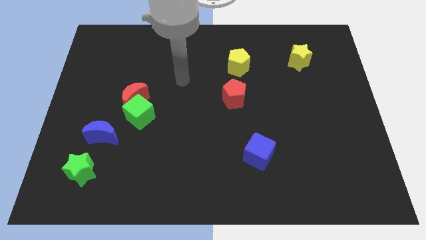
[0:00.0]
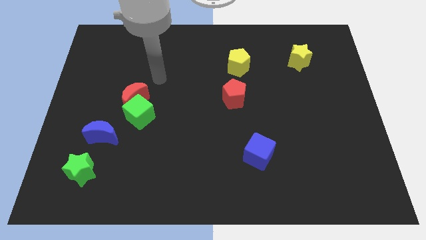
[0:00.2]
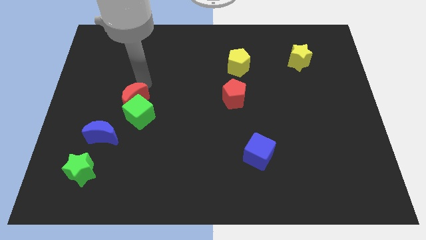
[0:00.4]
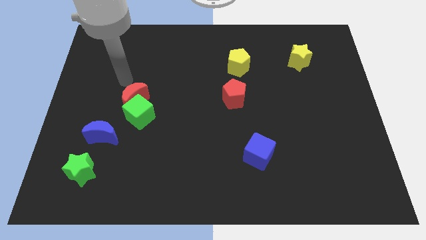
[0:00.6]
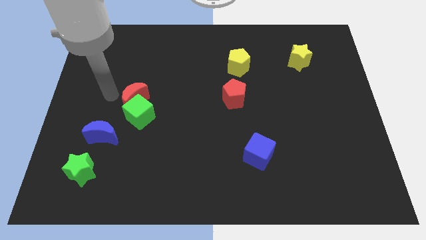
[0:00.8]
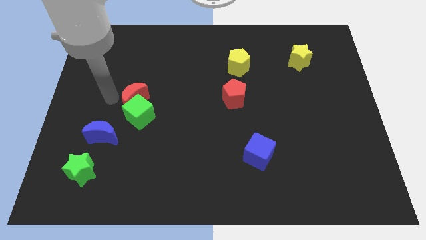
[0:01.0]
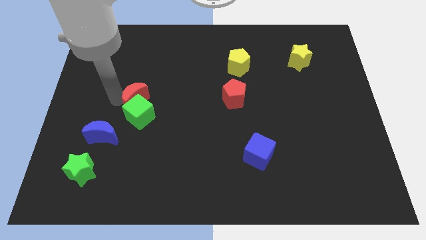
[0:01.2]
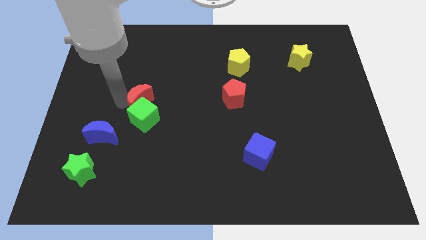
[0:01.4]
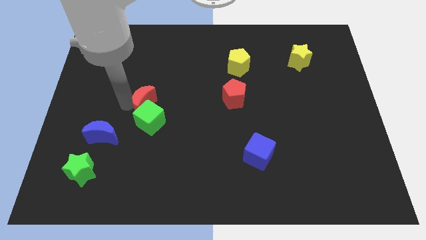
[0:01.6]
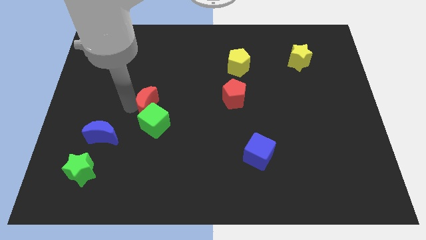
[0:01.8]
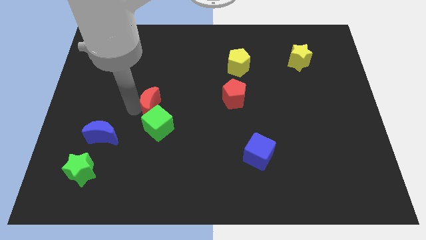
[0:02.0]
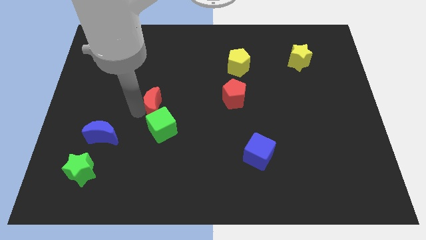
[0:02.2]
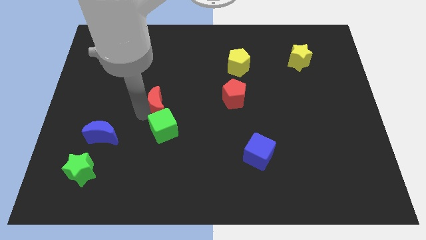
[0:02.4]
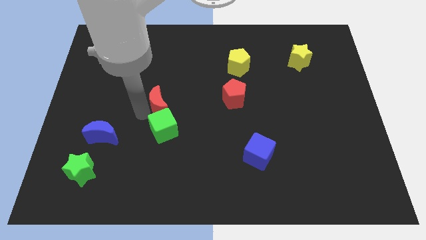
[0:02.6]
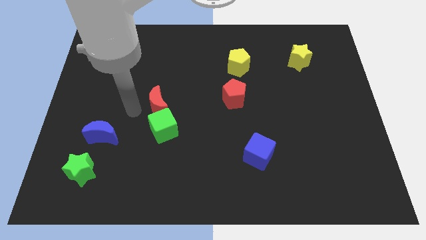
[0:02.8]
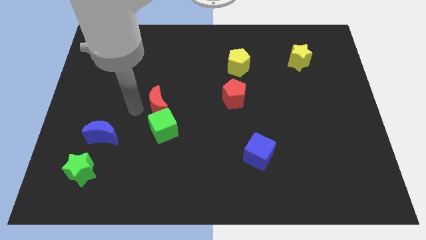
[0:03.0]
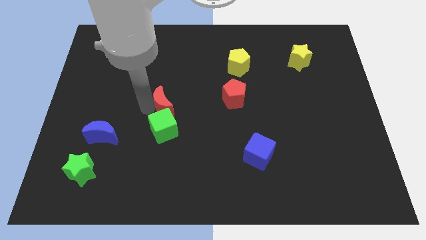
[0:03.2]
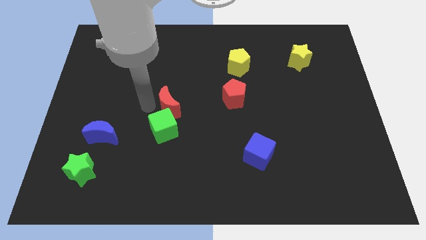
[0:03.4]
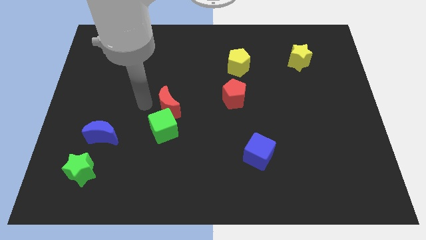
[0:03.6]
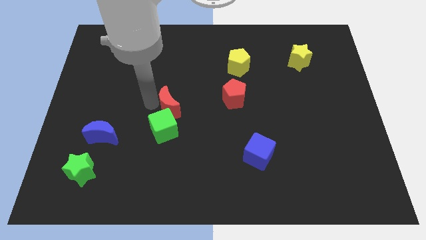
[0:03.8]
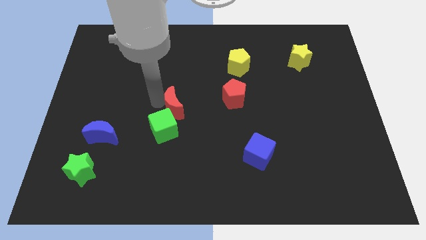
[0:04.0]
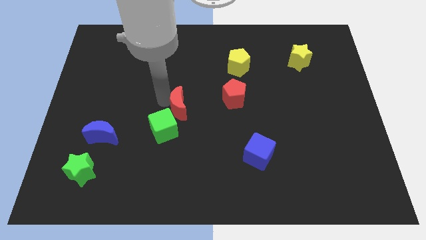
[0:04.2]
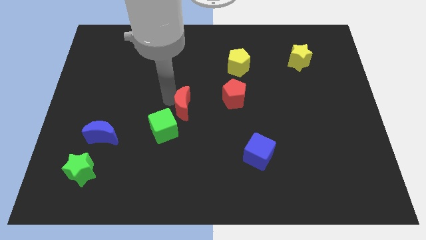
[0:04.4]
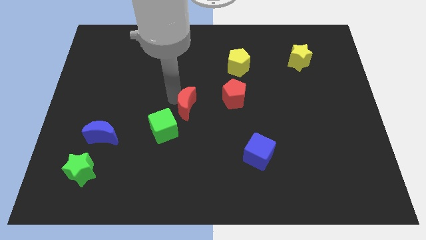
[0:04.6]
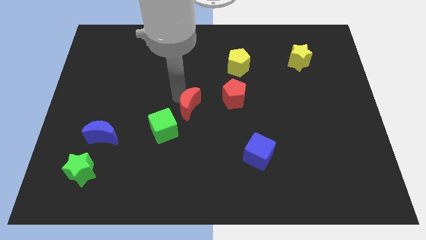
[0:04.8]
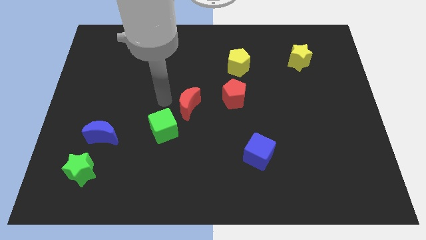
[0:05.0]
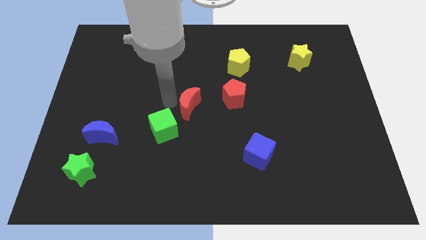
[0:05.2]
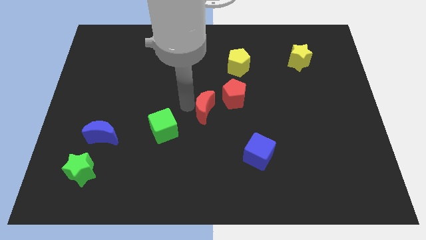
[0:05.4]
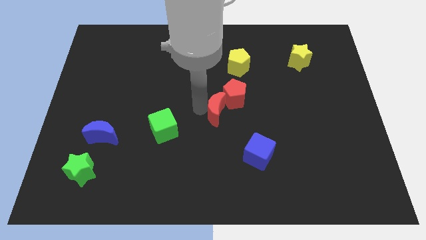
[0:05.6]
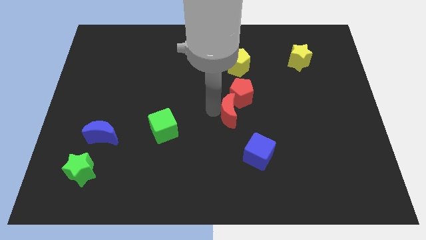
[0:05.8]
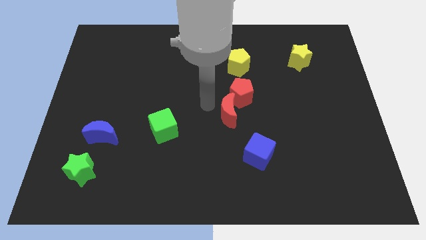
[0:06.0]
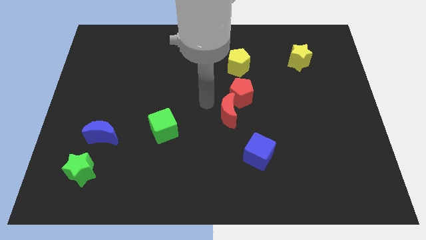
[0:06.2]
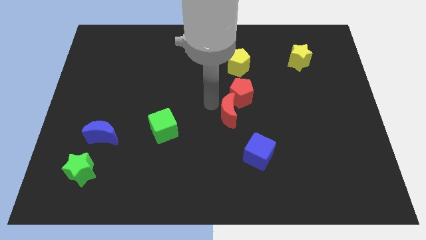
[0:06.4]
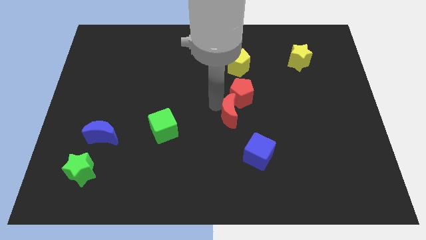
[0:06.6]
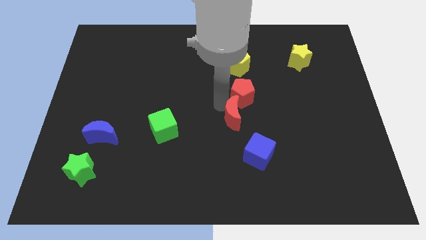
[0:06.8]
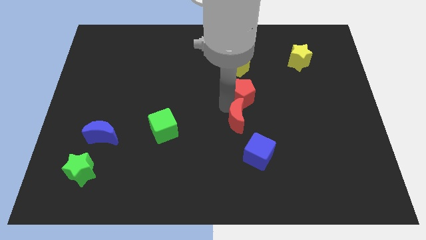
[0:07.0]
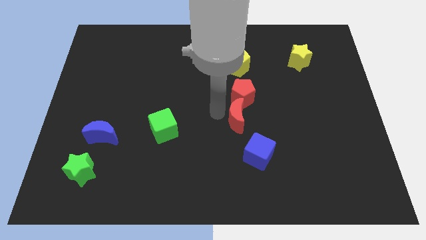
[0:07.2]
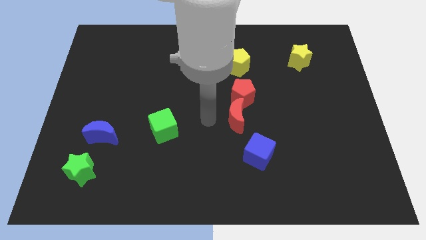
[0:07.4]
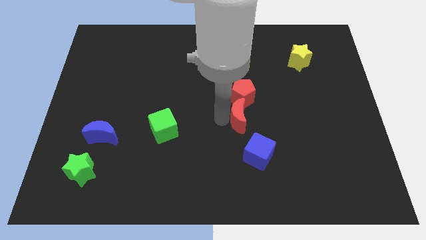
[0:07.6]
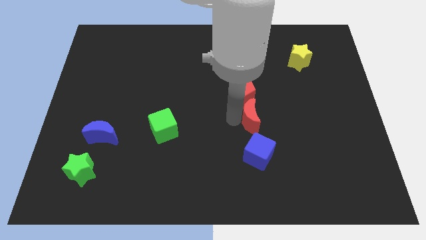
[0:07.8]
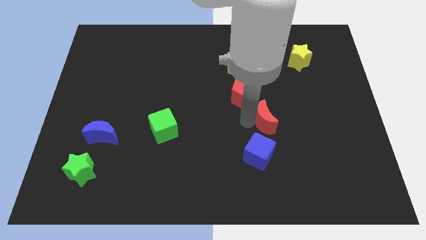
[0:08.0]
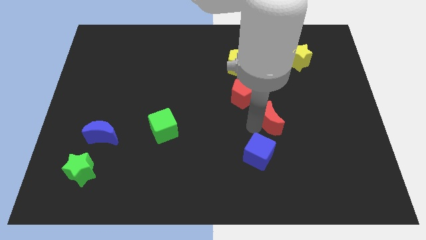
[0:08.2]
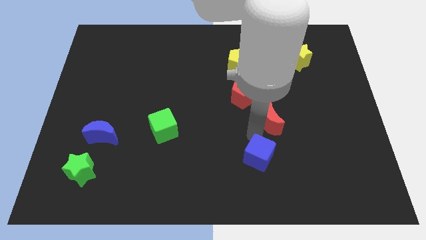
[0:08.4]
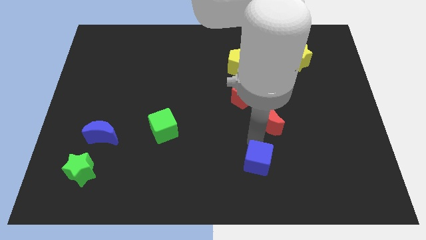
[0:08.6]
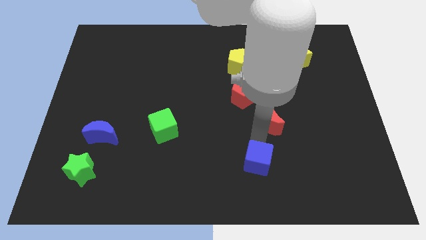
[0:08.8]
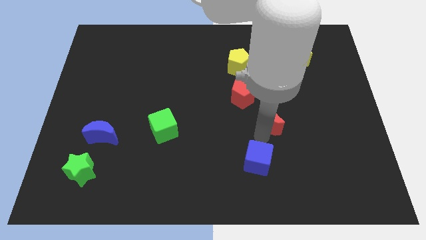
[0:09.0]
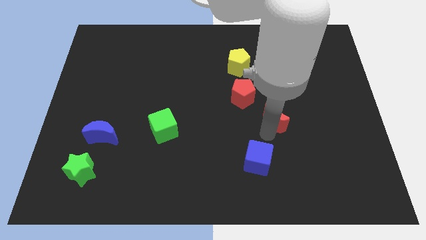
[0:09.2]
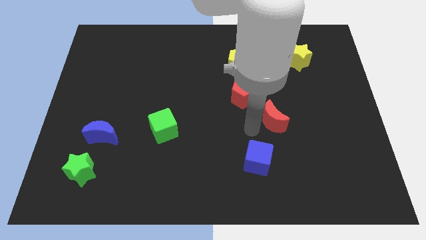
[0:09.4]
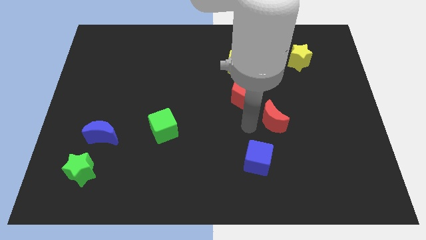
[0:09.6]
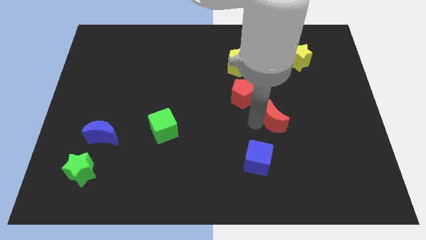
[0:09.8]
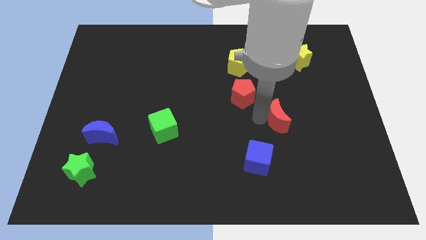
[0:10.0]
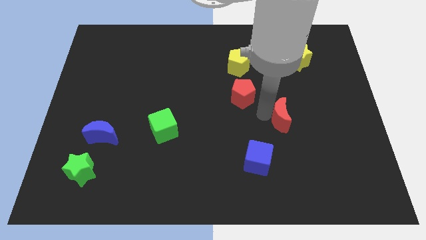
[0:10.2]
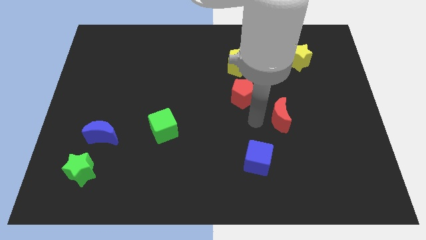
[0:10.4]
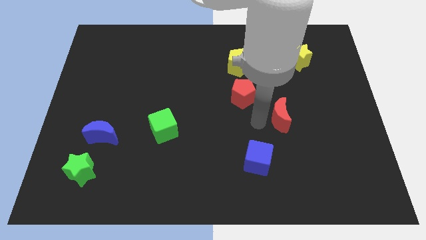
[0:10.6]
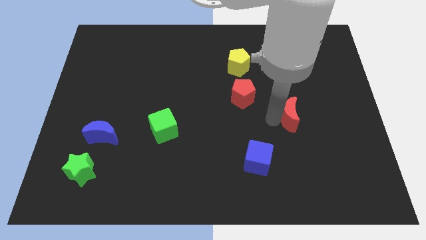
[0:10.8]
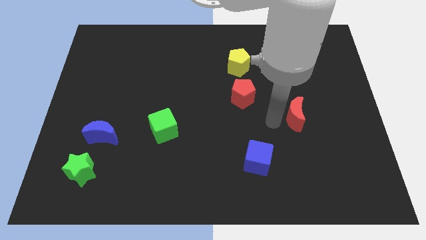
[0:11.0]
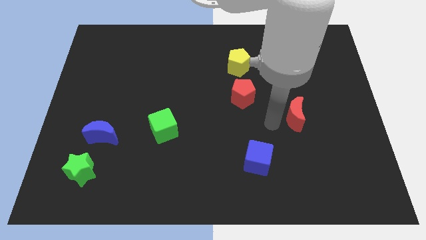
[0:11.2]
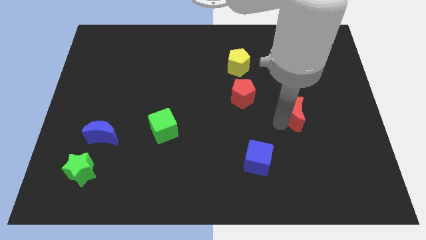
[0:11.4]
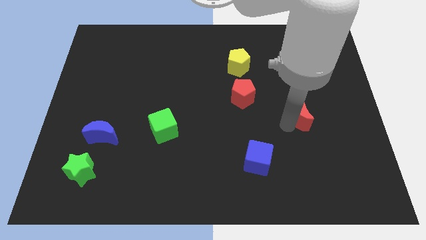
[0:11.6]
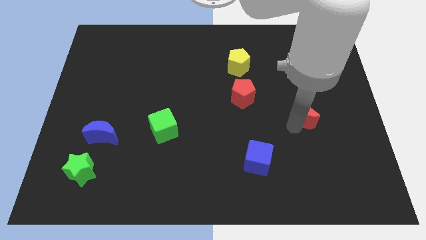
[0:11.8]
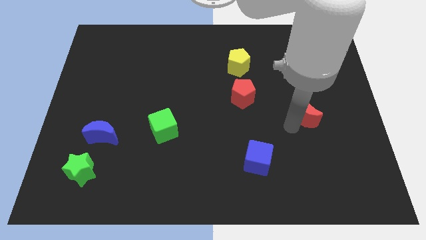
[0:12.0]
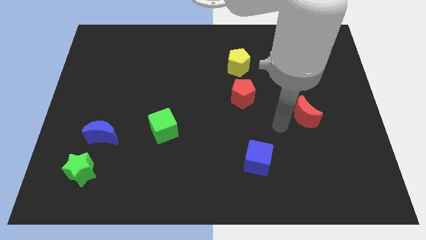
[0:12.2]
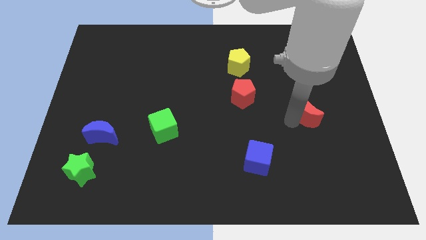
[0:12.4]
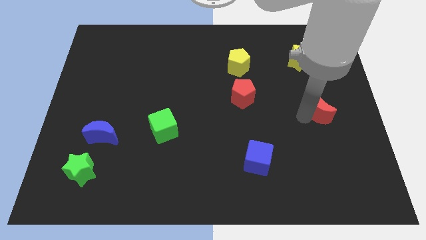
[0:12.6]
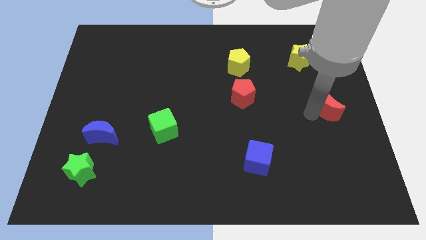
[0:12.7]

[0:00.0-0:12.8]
put the red moon to the center right

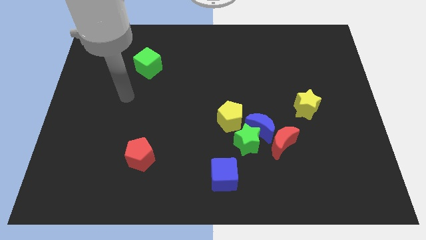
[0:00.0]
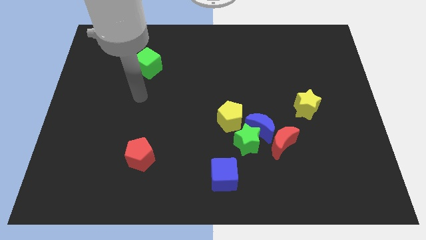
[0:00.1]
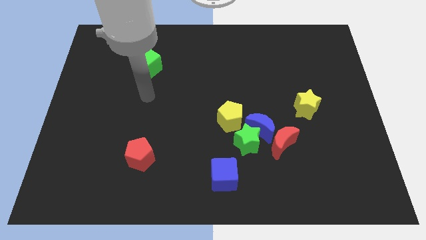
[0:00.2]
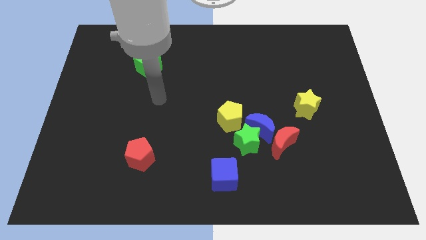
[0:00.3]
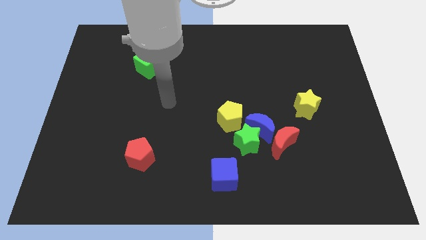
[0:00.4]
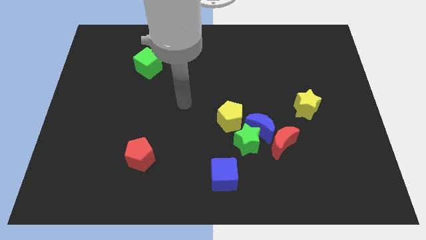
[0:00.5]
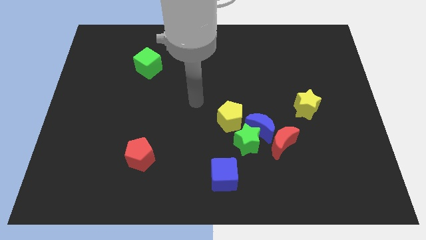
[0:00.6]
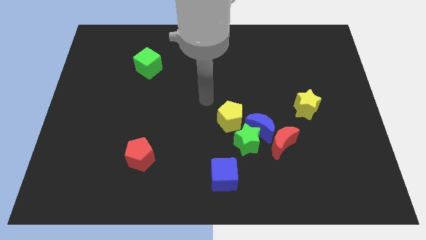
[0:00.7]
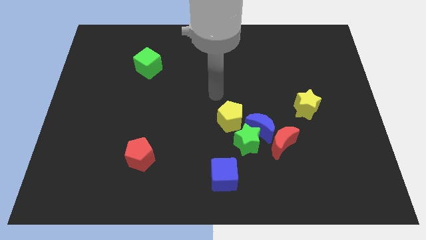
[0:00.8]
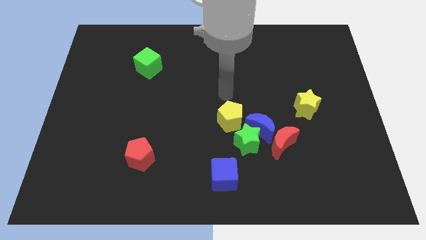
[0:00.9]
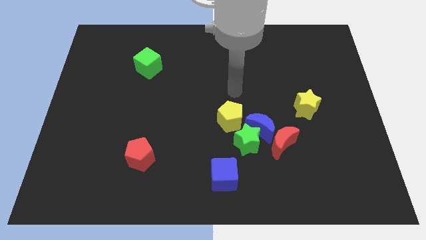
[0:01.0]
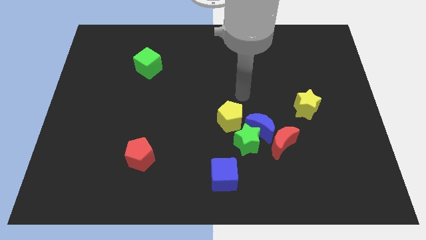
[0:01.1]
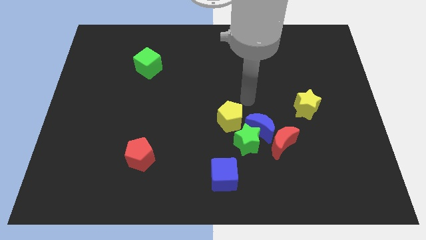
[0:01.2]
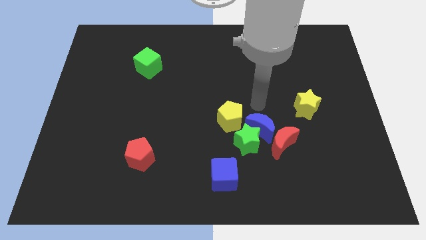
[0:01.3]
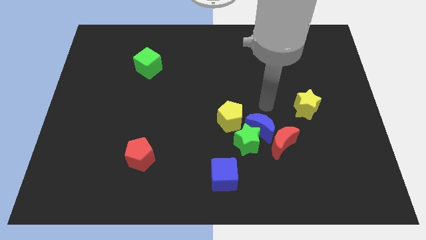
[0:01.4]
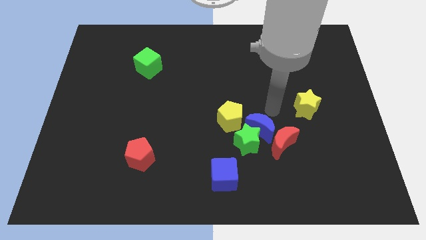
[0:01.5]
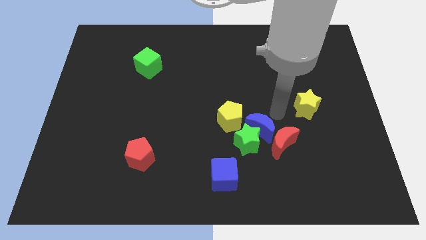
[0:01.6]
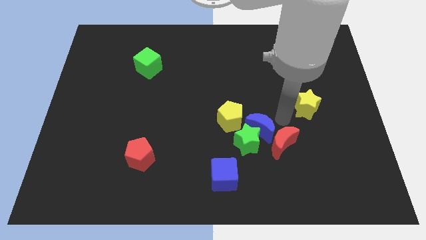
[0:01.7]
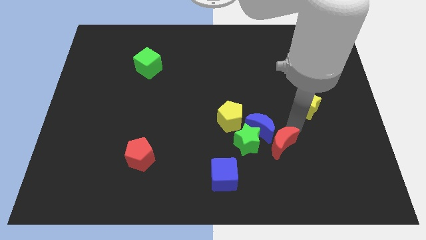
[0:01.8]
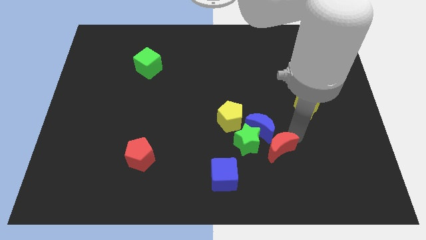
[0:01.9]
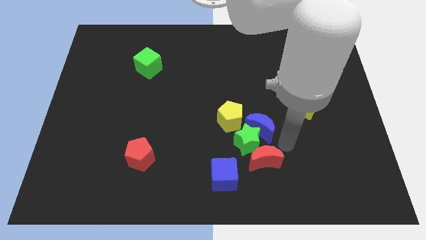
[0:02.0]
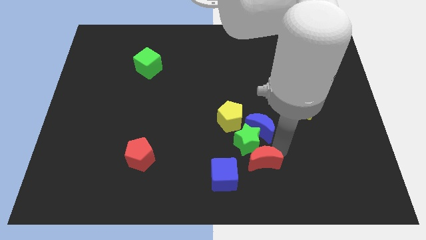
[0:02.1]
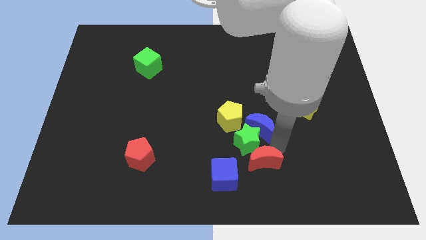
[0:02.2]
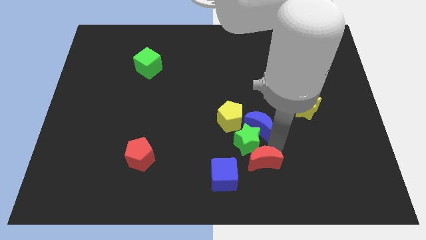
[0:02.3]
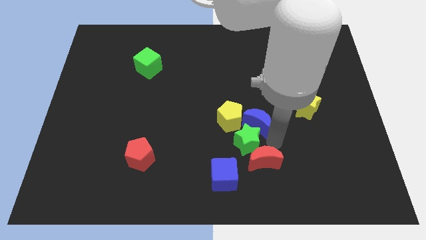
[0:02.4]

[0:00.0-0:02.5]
push the blue moon to the middle of the board
